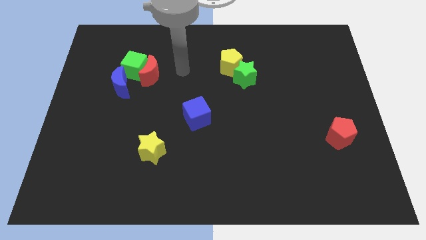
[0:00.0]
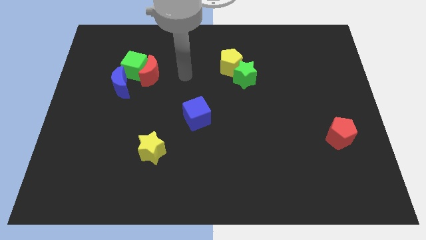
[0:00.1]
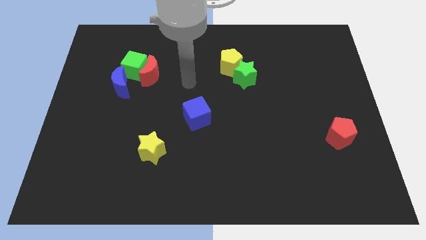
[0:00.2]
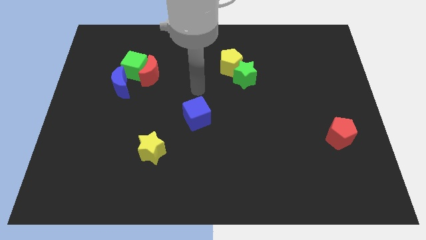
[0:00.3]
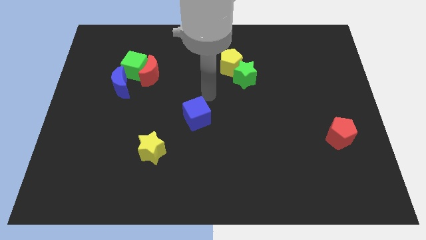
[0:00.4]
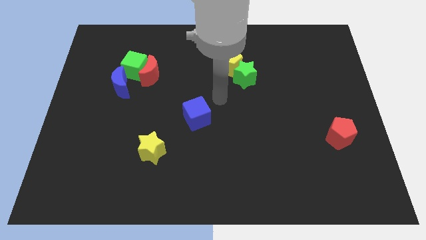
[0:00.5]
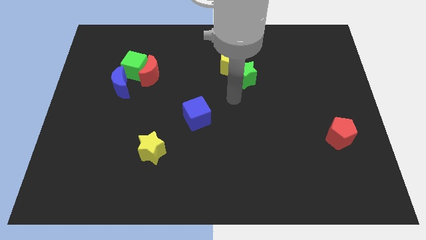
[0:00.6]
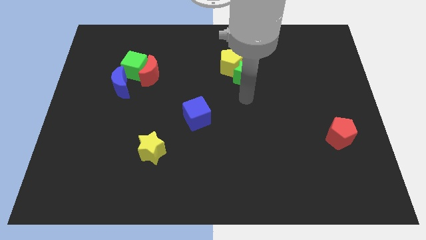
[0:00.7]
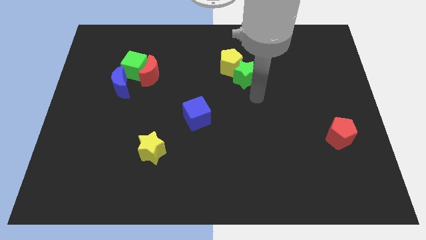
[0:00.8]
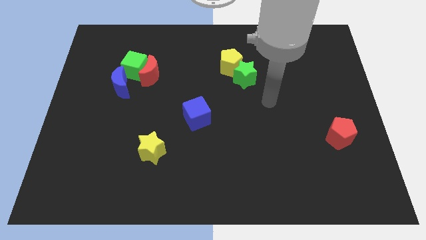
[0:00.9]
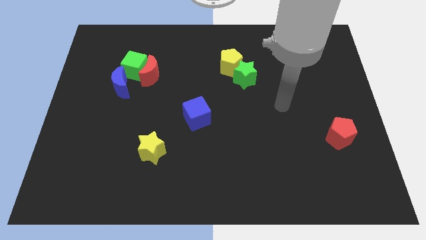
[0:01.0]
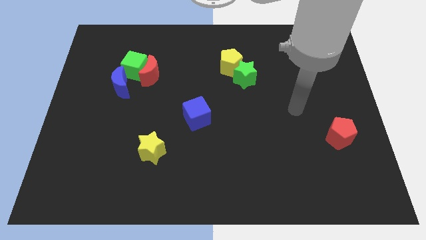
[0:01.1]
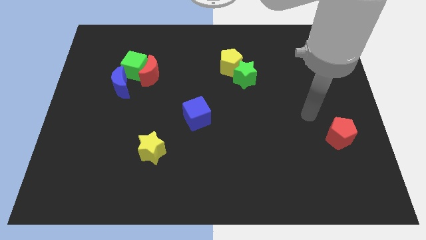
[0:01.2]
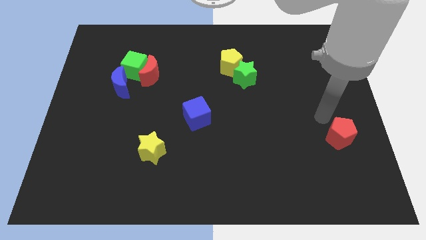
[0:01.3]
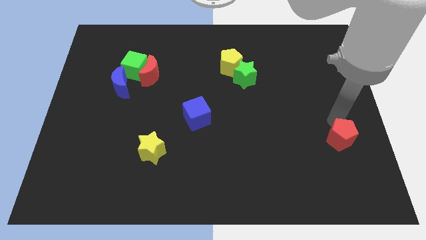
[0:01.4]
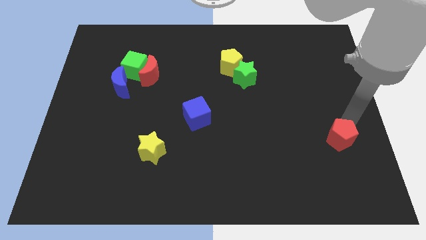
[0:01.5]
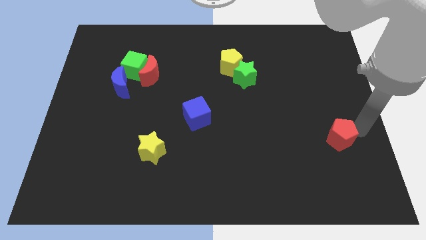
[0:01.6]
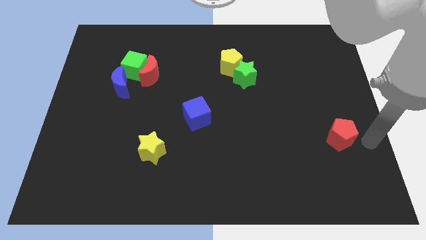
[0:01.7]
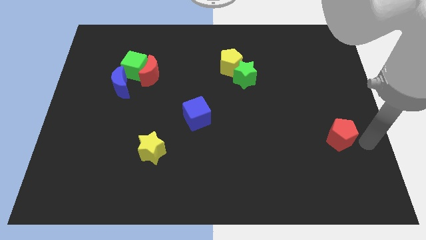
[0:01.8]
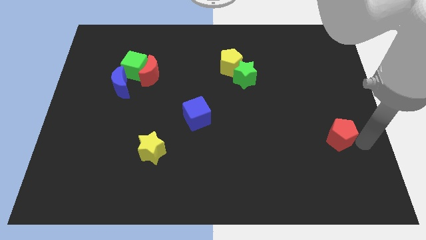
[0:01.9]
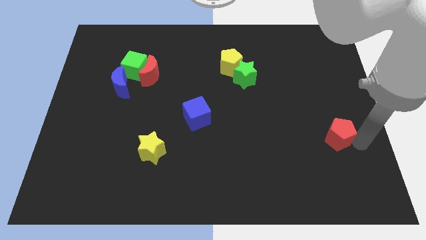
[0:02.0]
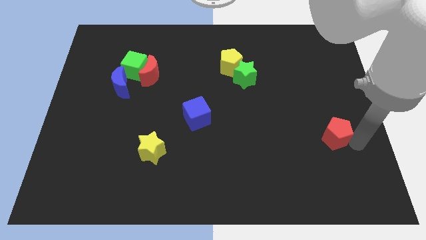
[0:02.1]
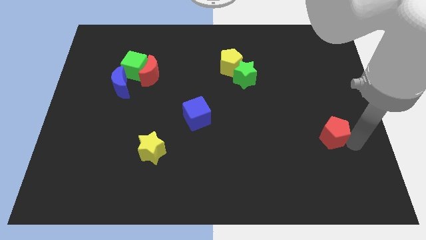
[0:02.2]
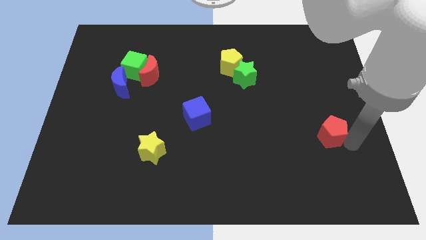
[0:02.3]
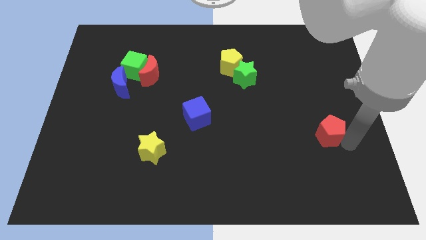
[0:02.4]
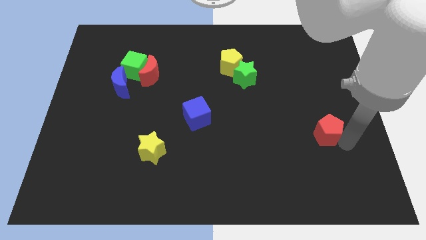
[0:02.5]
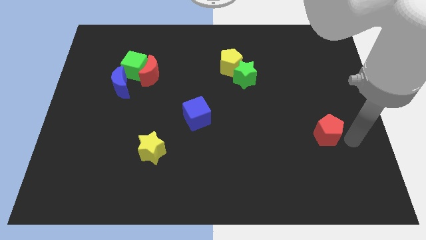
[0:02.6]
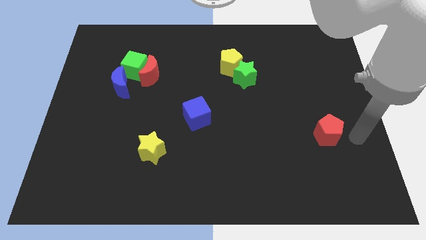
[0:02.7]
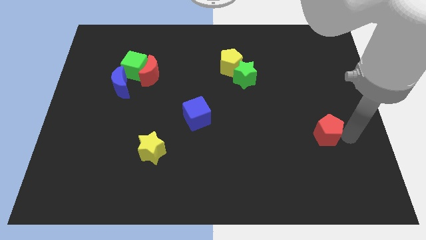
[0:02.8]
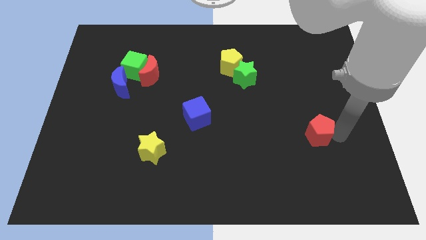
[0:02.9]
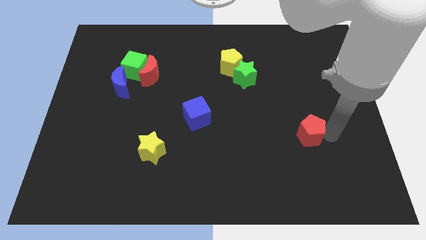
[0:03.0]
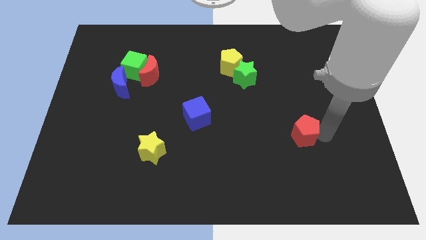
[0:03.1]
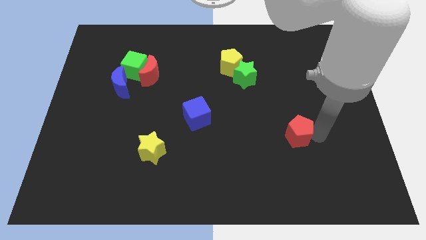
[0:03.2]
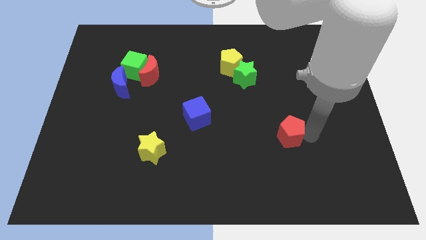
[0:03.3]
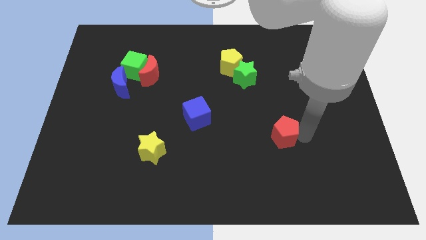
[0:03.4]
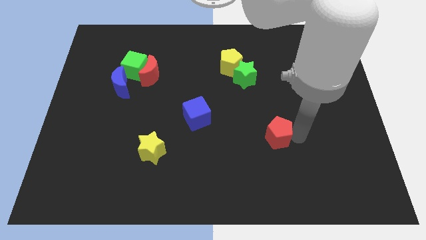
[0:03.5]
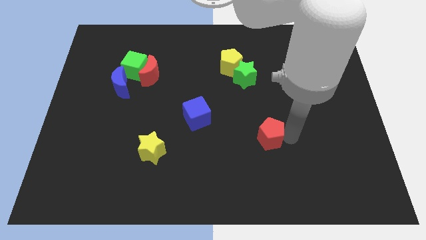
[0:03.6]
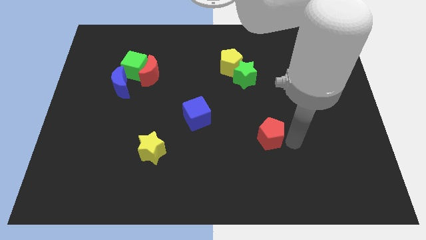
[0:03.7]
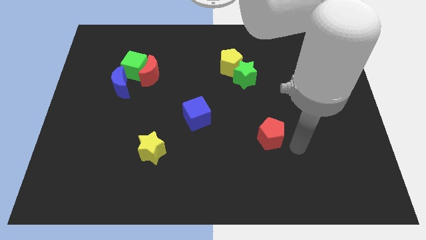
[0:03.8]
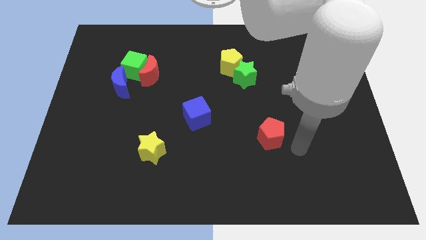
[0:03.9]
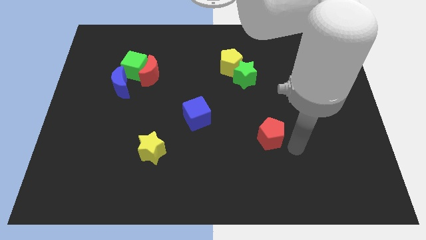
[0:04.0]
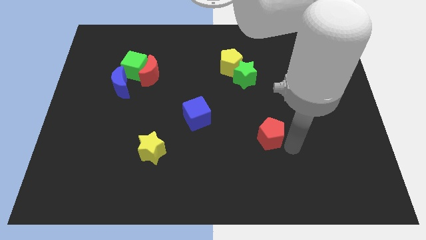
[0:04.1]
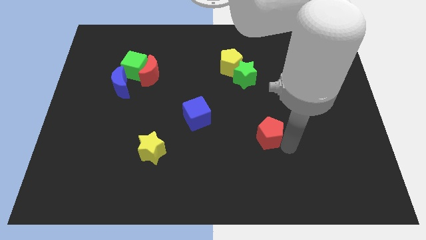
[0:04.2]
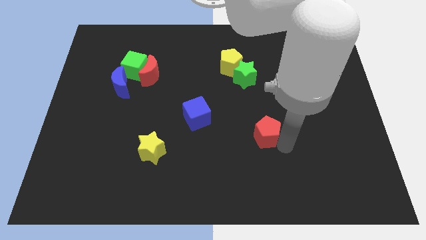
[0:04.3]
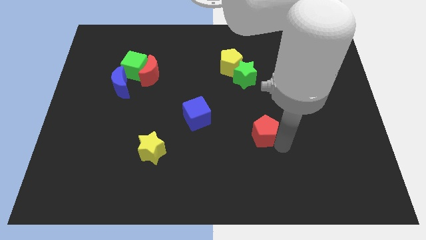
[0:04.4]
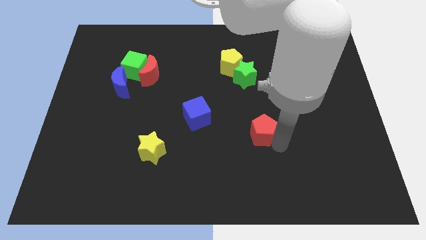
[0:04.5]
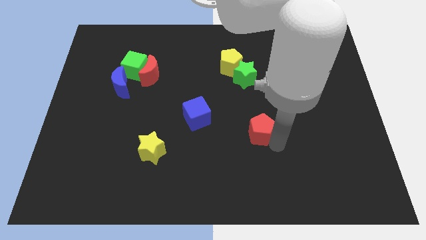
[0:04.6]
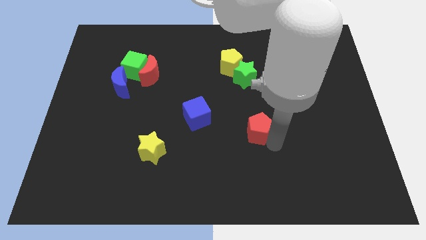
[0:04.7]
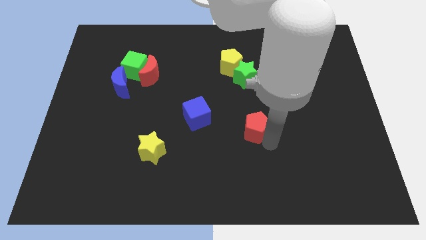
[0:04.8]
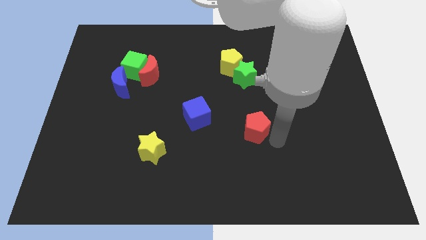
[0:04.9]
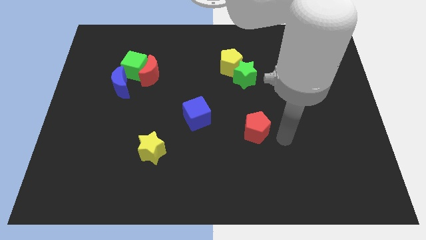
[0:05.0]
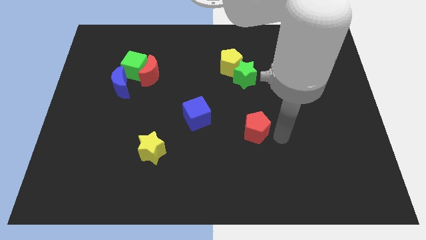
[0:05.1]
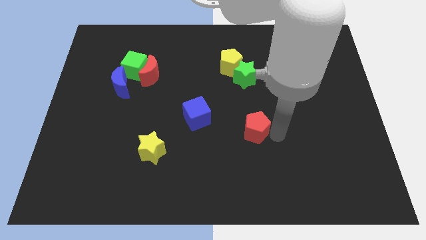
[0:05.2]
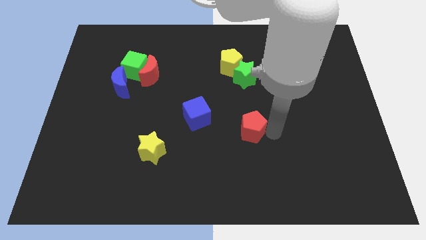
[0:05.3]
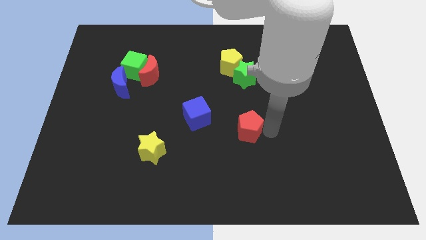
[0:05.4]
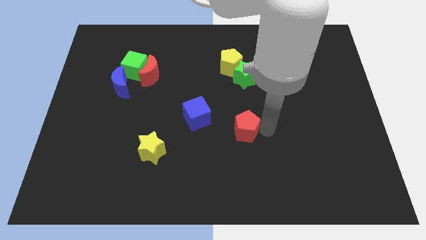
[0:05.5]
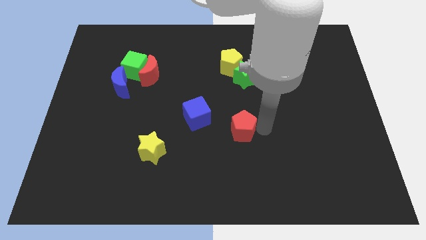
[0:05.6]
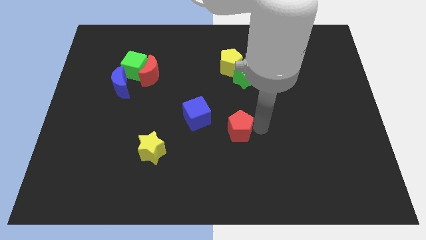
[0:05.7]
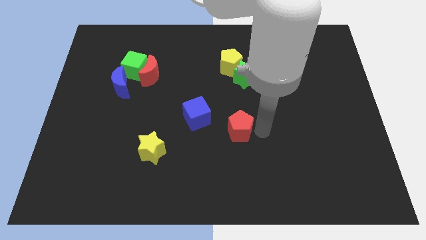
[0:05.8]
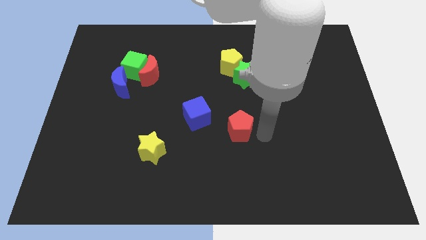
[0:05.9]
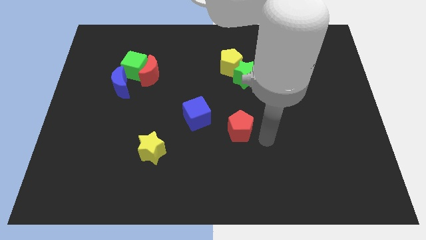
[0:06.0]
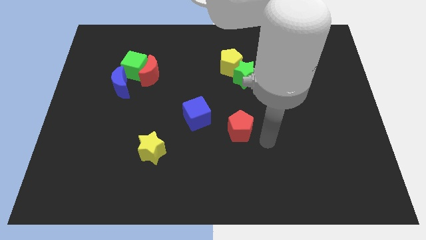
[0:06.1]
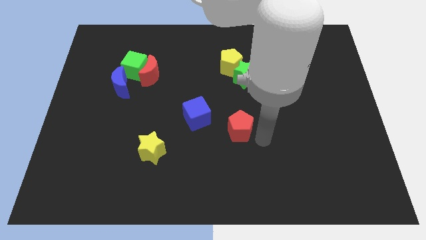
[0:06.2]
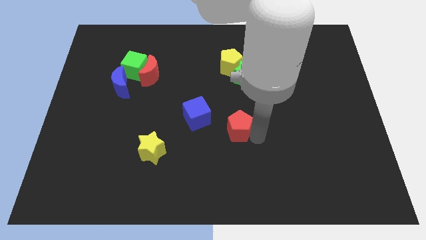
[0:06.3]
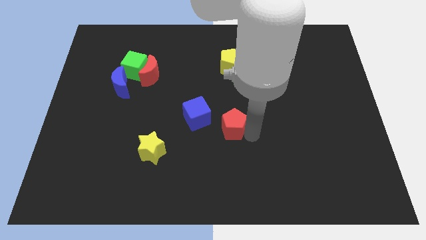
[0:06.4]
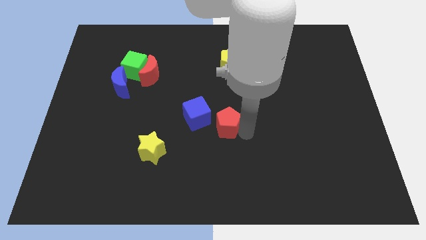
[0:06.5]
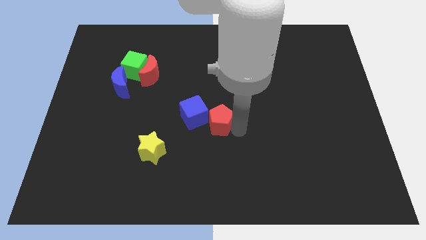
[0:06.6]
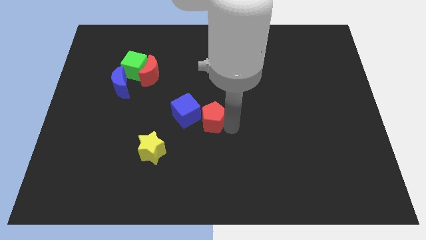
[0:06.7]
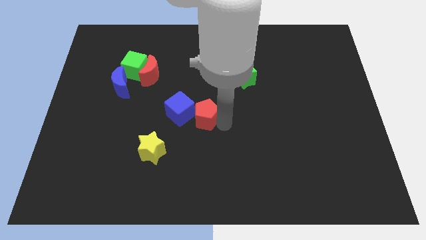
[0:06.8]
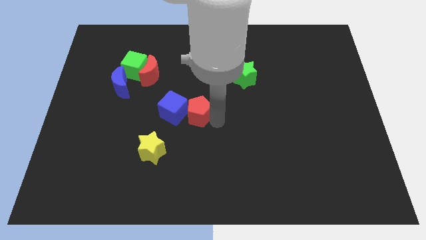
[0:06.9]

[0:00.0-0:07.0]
move the red pentagon close to the blue cube
